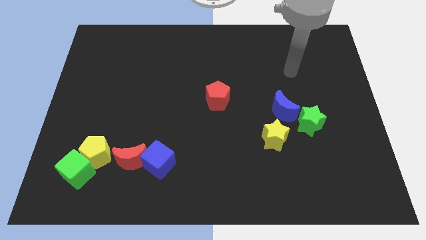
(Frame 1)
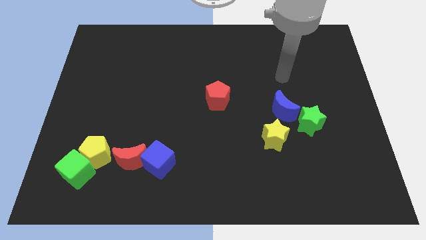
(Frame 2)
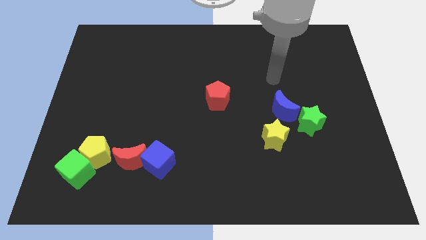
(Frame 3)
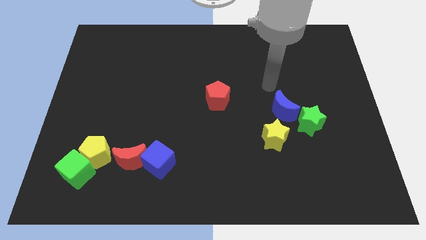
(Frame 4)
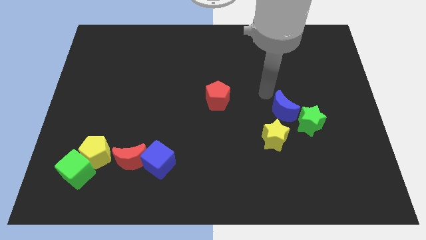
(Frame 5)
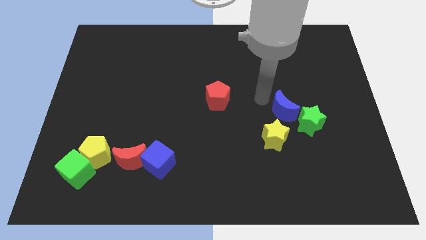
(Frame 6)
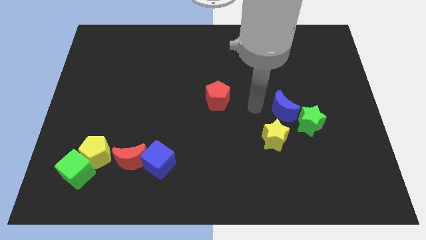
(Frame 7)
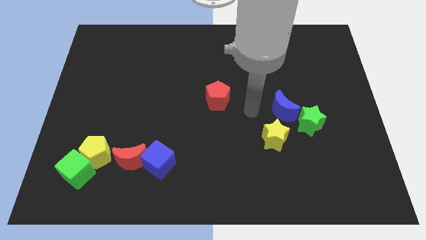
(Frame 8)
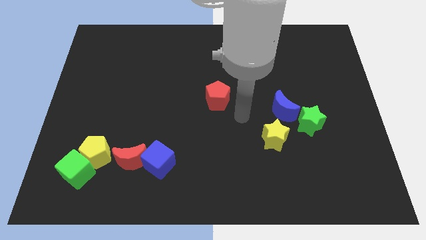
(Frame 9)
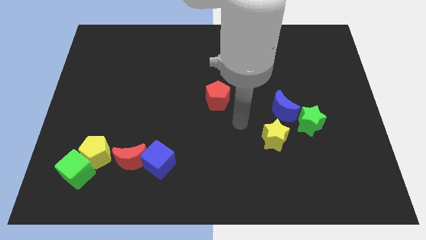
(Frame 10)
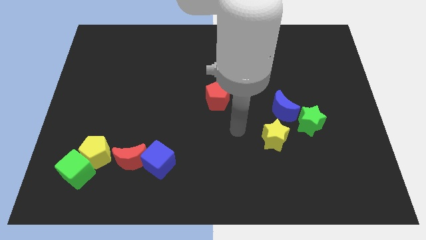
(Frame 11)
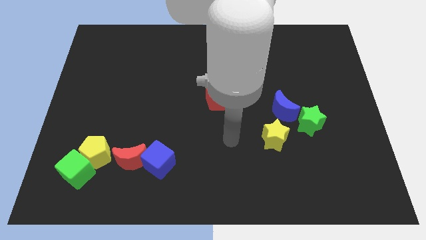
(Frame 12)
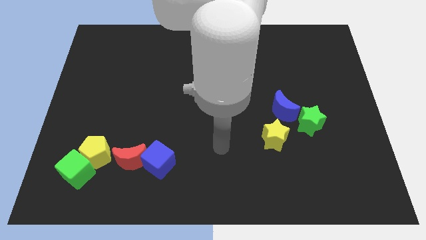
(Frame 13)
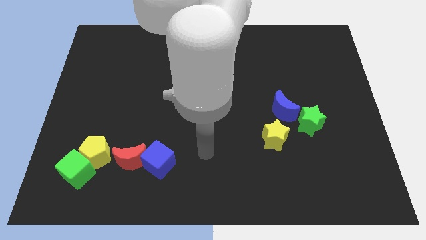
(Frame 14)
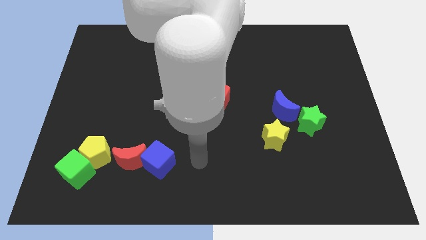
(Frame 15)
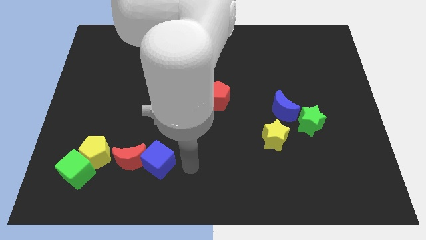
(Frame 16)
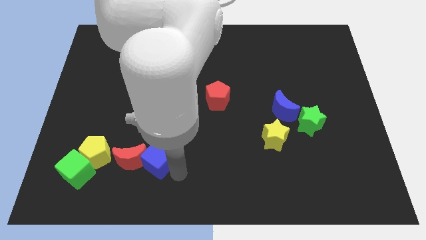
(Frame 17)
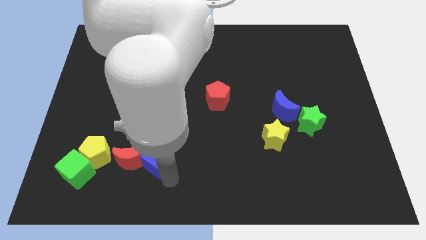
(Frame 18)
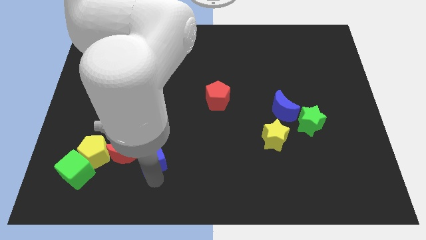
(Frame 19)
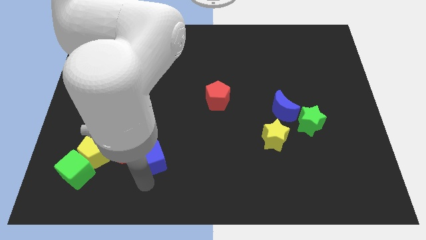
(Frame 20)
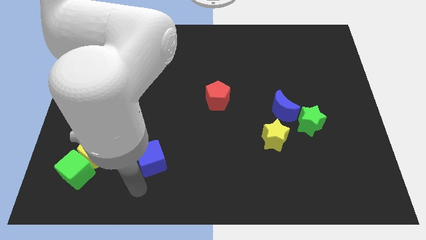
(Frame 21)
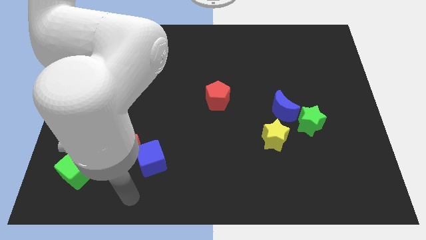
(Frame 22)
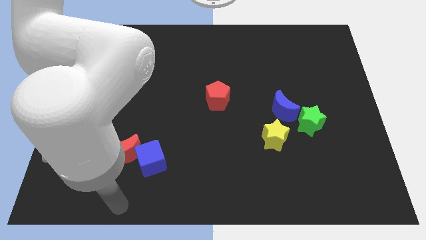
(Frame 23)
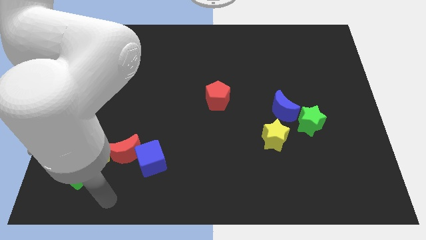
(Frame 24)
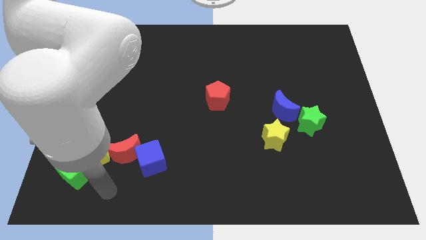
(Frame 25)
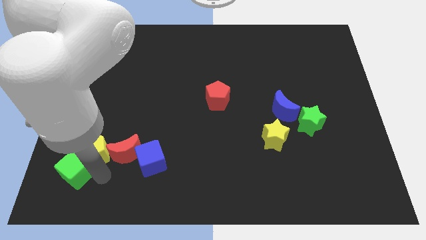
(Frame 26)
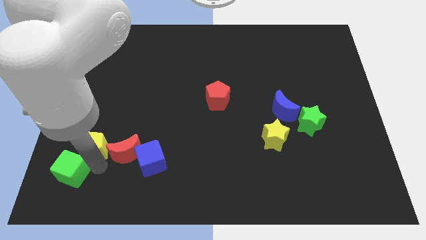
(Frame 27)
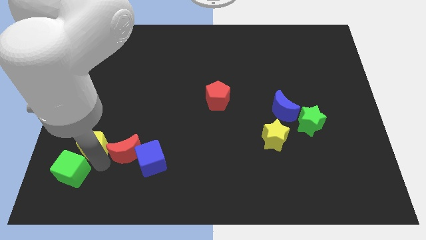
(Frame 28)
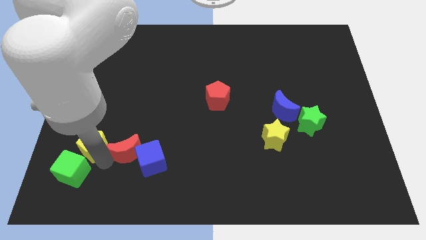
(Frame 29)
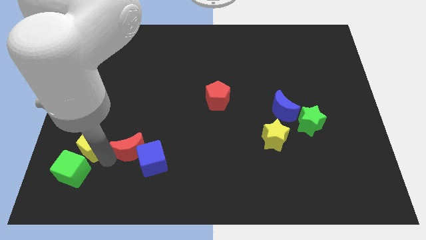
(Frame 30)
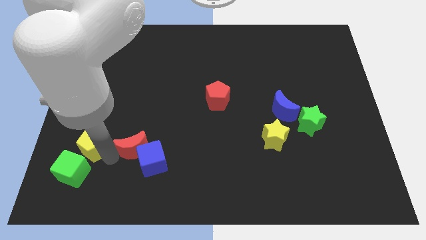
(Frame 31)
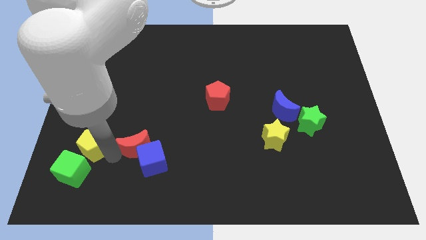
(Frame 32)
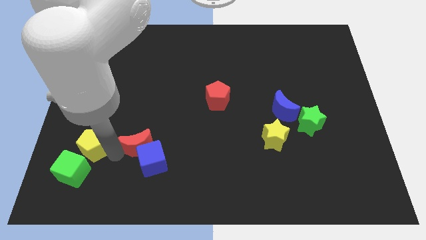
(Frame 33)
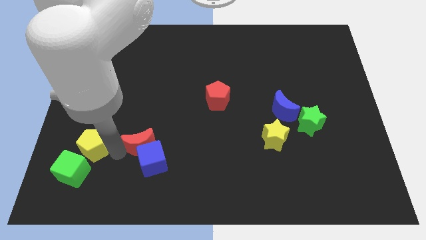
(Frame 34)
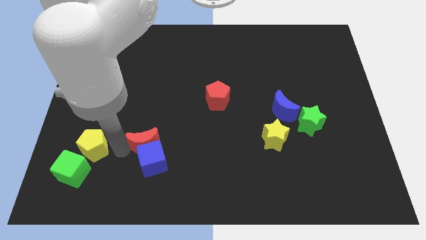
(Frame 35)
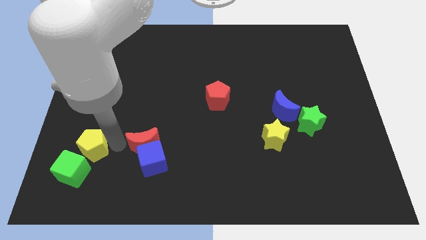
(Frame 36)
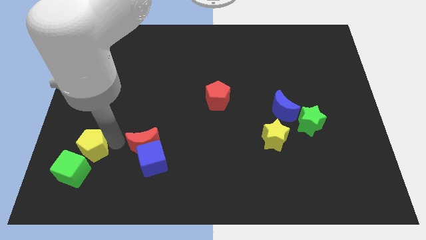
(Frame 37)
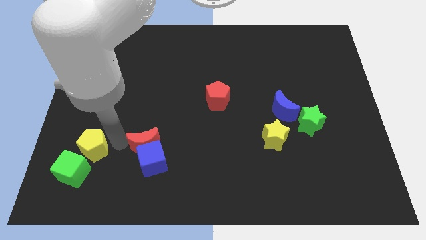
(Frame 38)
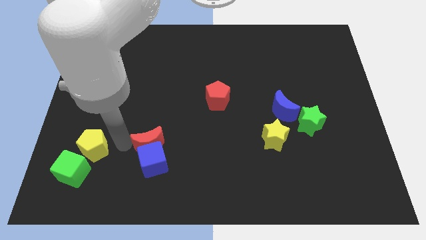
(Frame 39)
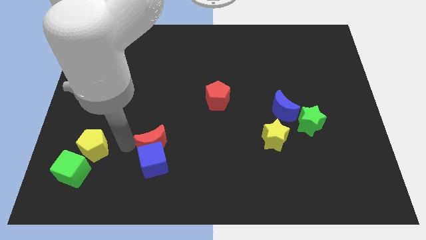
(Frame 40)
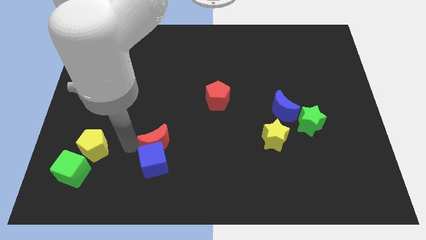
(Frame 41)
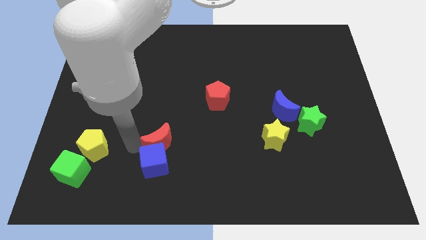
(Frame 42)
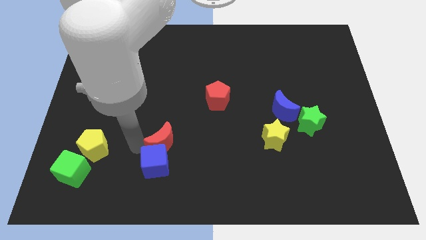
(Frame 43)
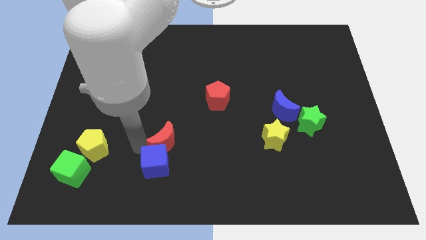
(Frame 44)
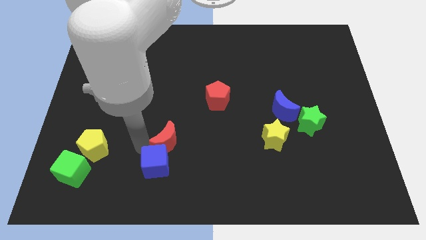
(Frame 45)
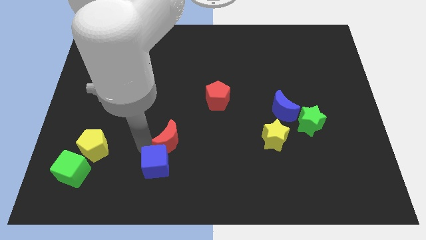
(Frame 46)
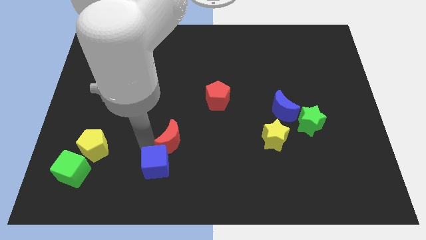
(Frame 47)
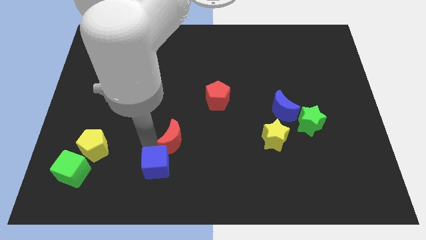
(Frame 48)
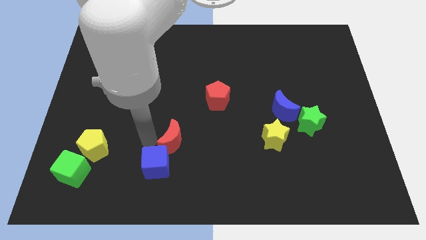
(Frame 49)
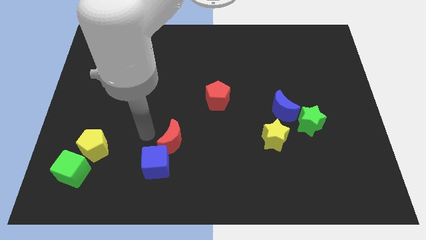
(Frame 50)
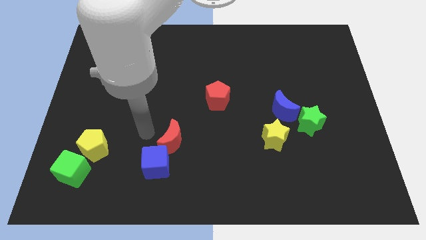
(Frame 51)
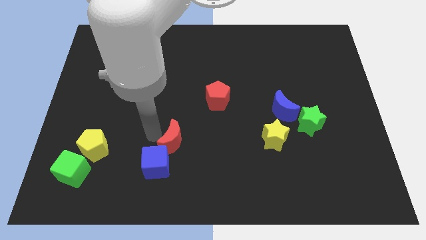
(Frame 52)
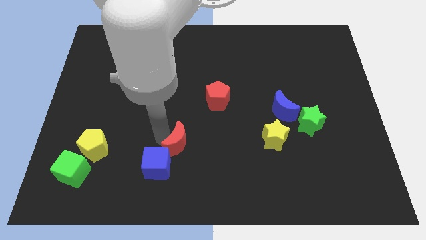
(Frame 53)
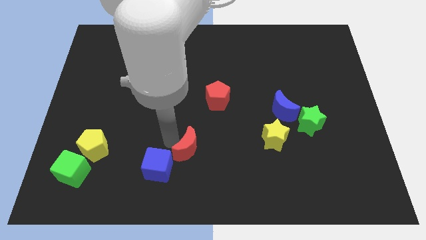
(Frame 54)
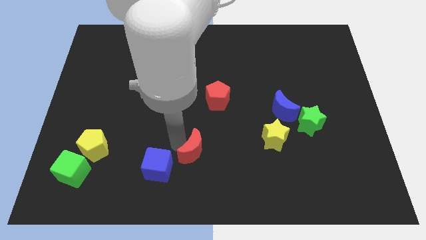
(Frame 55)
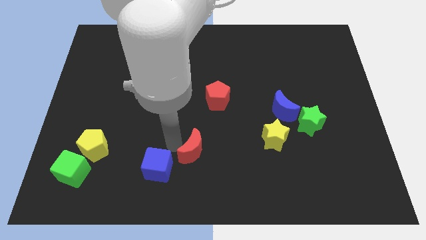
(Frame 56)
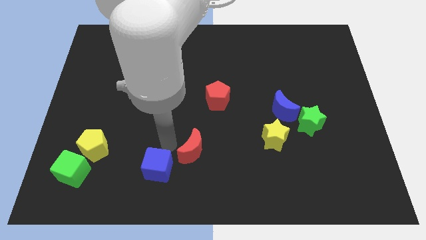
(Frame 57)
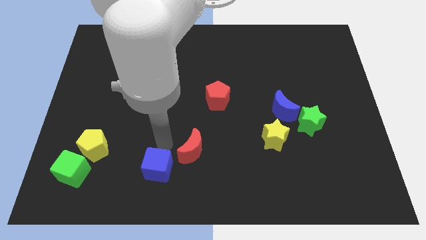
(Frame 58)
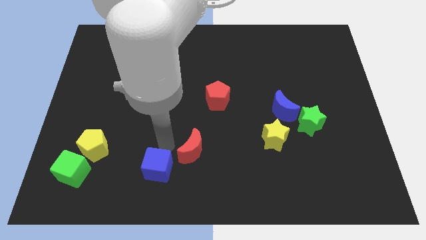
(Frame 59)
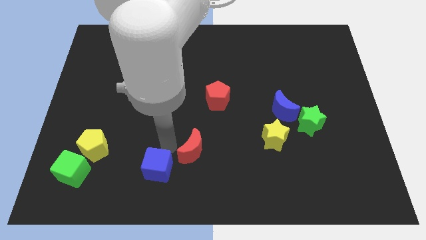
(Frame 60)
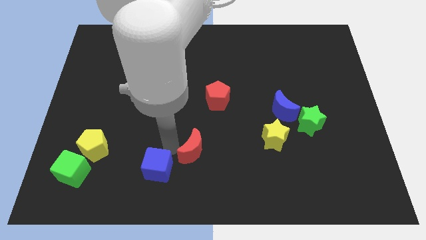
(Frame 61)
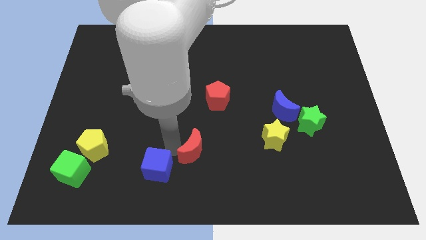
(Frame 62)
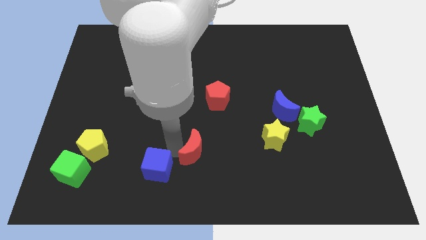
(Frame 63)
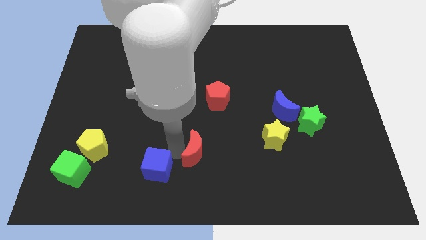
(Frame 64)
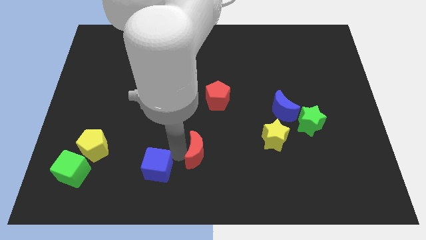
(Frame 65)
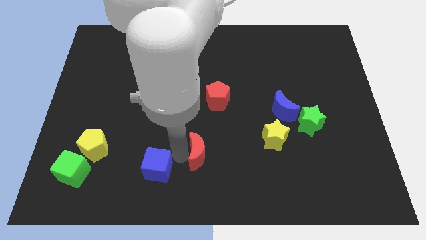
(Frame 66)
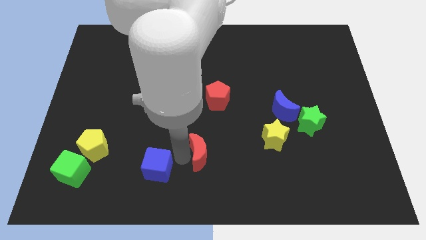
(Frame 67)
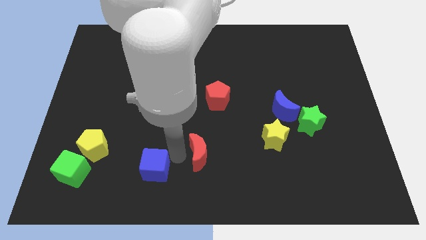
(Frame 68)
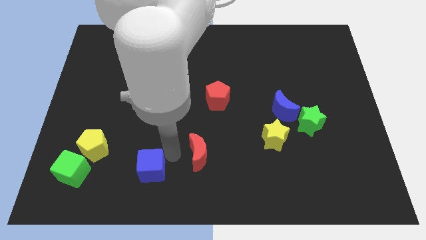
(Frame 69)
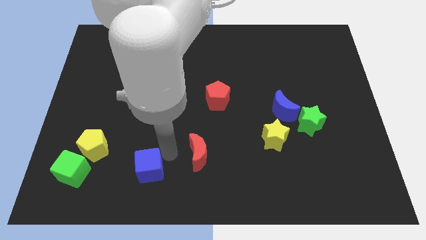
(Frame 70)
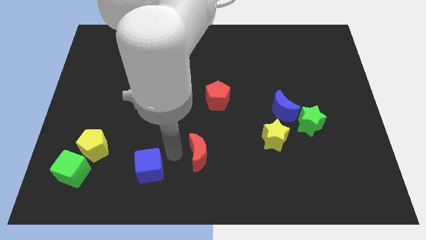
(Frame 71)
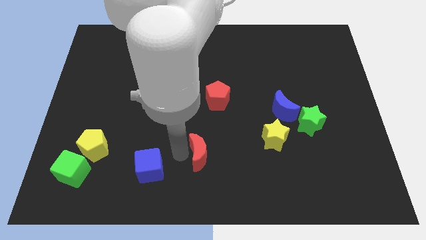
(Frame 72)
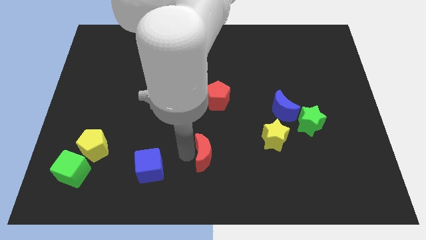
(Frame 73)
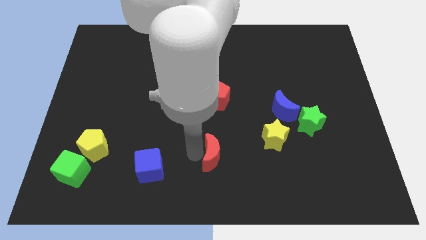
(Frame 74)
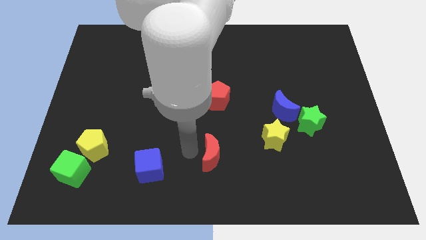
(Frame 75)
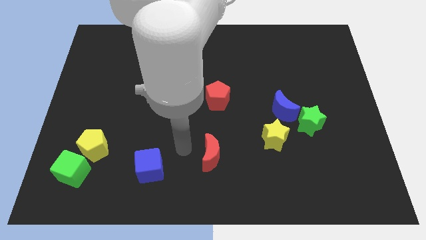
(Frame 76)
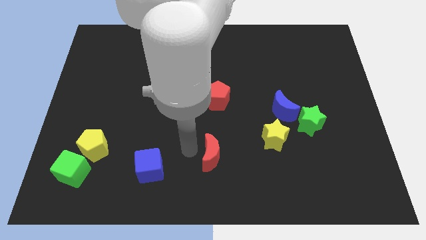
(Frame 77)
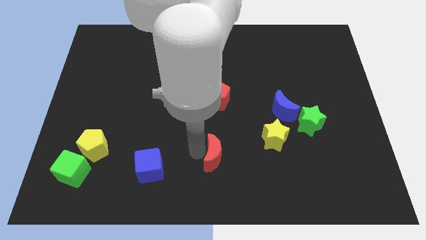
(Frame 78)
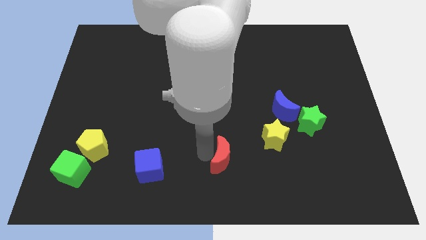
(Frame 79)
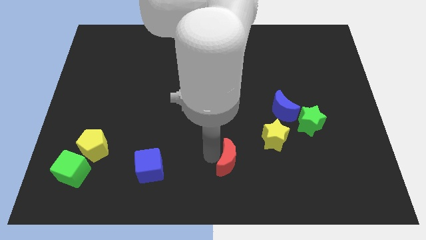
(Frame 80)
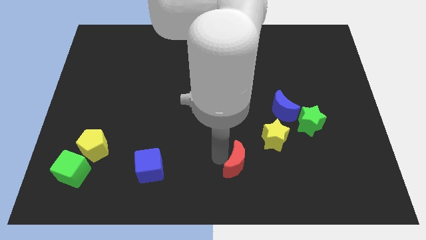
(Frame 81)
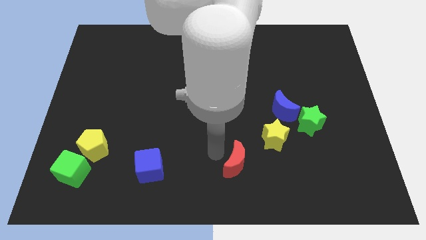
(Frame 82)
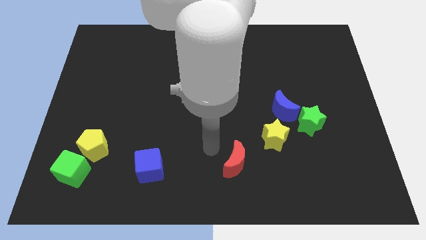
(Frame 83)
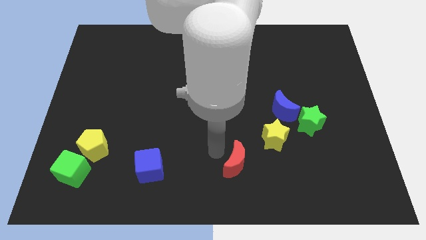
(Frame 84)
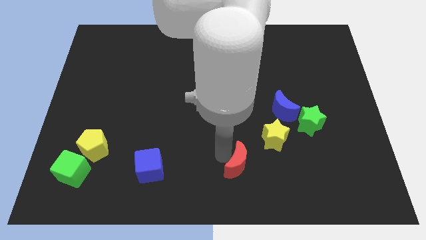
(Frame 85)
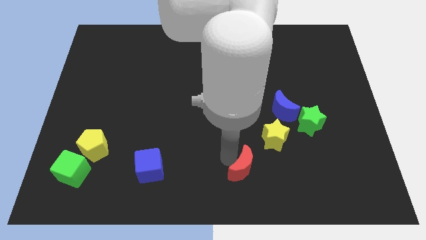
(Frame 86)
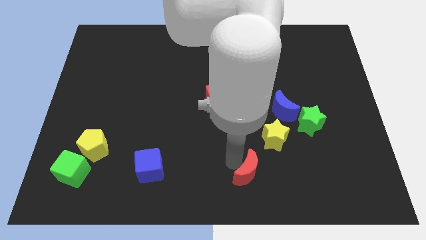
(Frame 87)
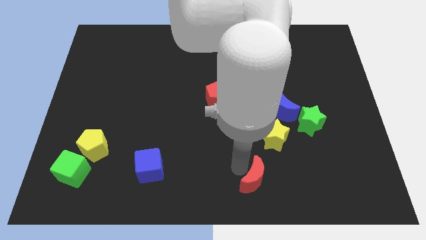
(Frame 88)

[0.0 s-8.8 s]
push the red moon to the bottom of the yellow star
